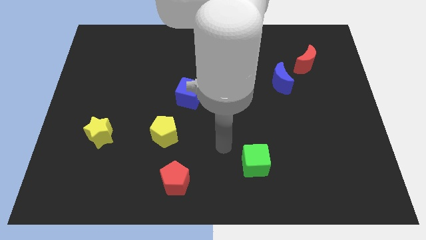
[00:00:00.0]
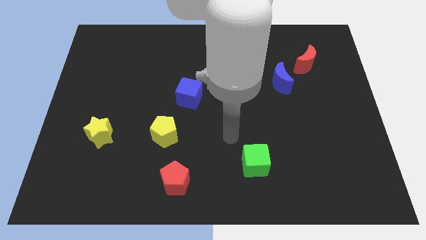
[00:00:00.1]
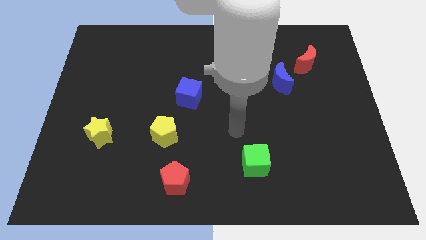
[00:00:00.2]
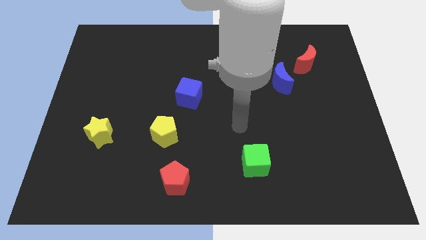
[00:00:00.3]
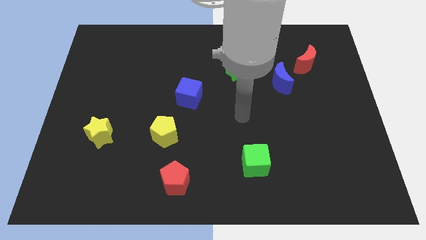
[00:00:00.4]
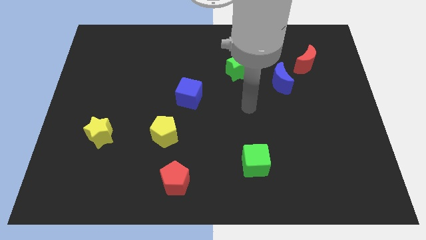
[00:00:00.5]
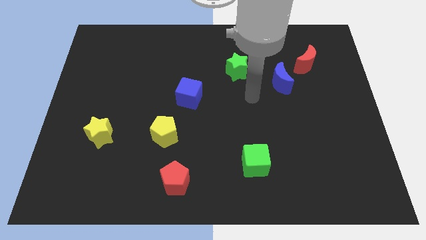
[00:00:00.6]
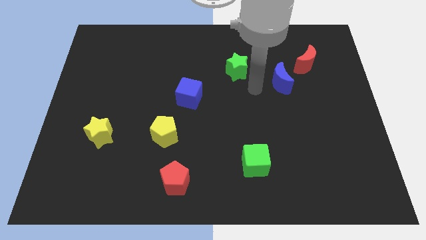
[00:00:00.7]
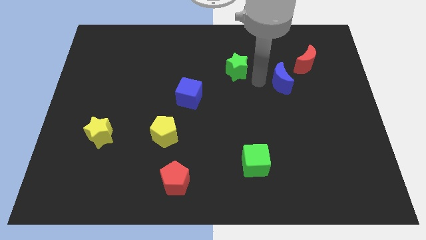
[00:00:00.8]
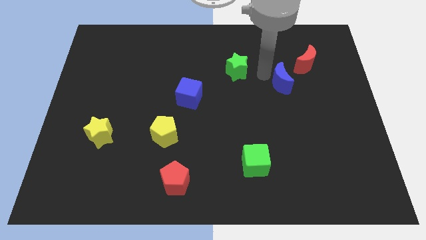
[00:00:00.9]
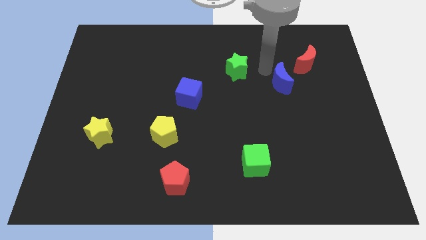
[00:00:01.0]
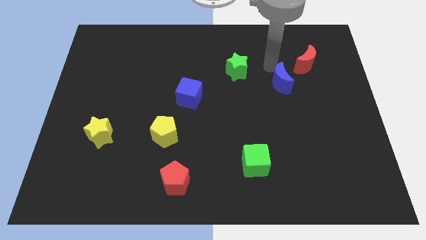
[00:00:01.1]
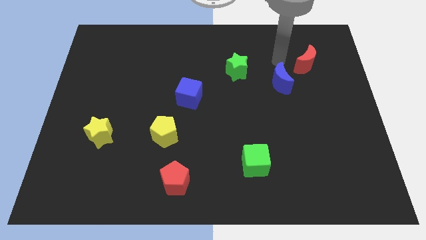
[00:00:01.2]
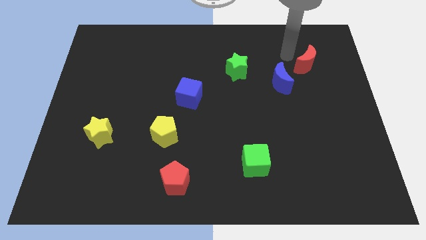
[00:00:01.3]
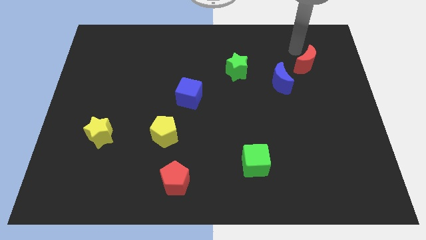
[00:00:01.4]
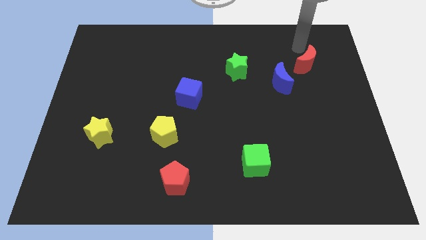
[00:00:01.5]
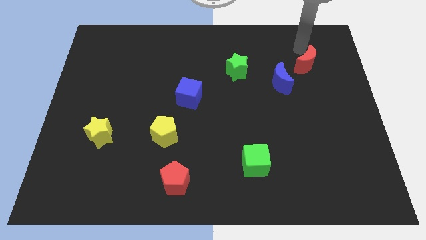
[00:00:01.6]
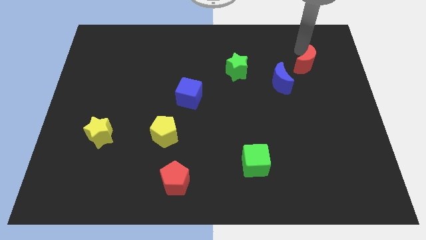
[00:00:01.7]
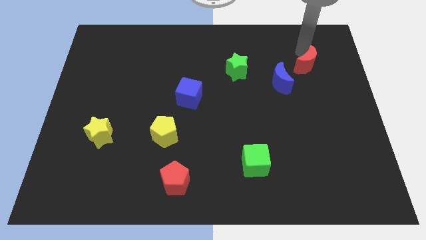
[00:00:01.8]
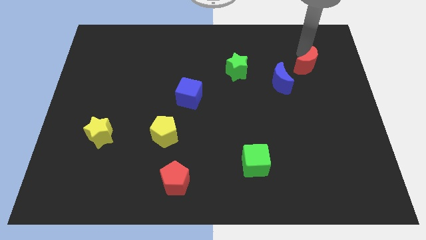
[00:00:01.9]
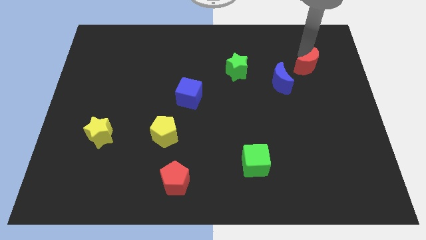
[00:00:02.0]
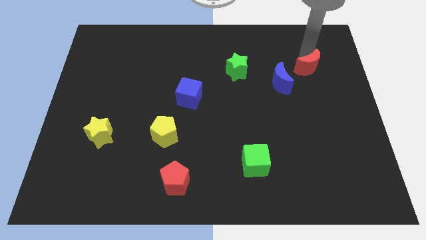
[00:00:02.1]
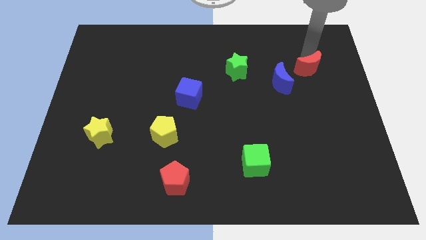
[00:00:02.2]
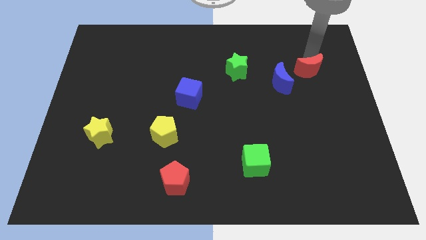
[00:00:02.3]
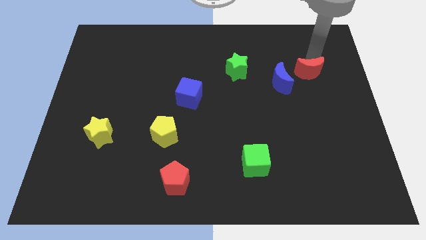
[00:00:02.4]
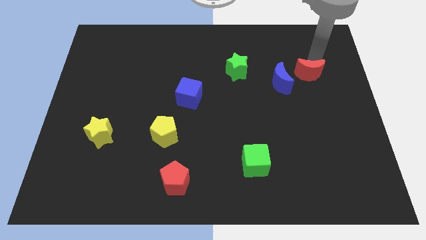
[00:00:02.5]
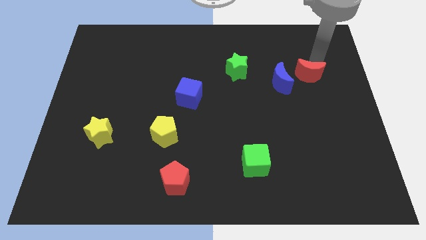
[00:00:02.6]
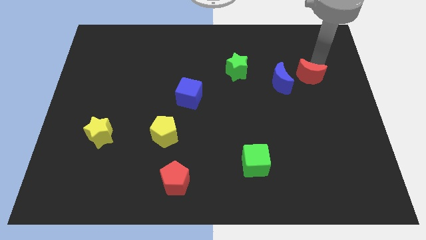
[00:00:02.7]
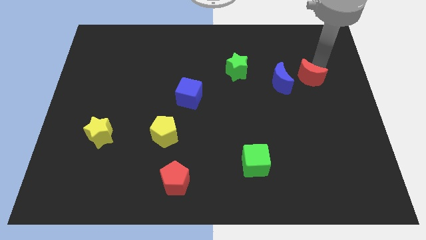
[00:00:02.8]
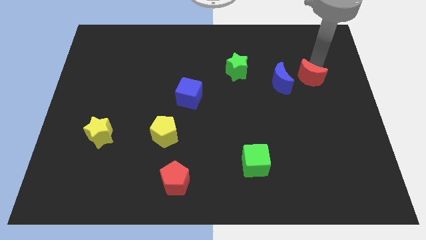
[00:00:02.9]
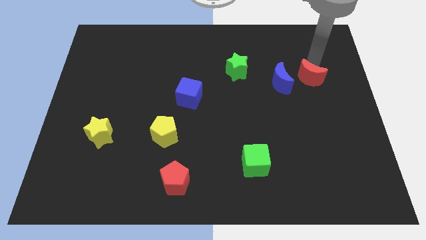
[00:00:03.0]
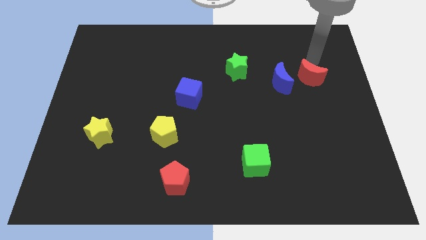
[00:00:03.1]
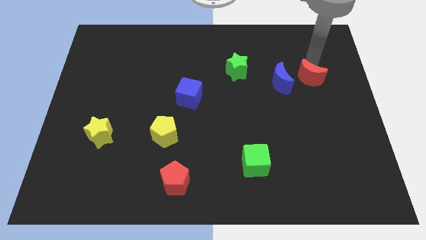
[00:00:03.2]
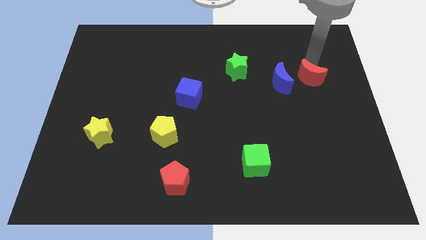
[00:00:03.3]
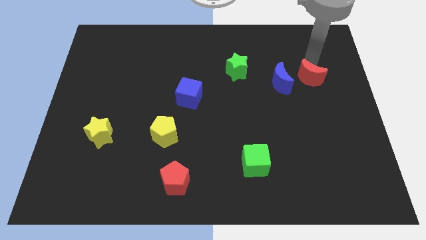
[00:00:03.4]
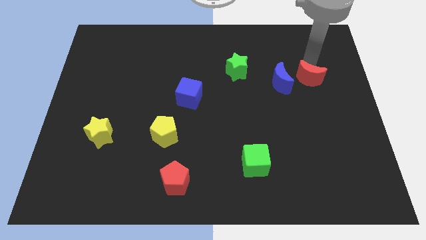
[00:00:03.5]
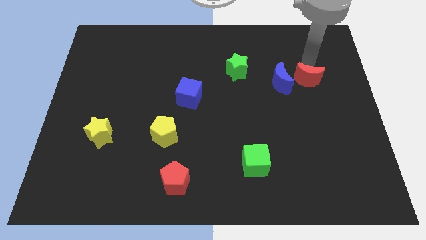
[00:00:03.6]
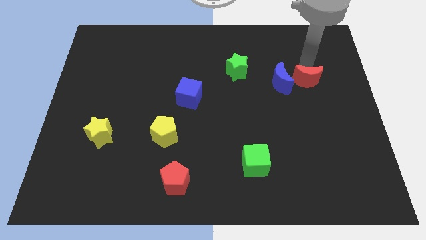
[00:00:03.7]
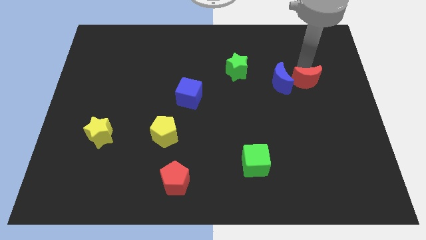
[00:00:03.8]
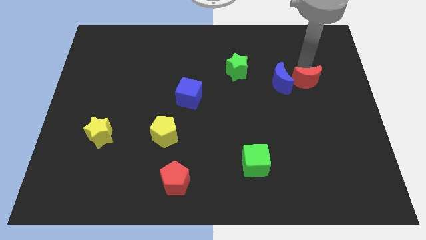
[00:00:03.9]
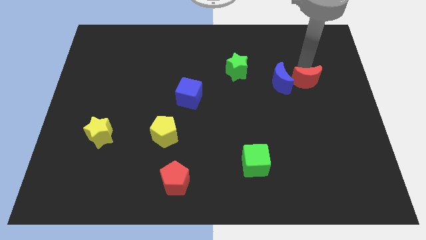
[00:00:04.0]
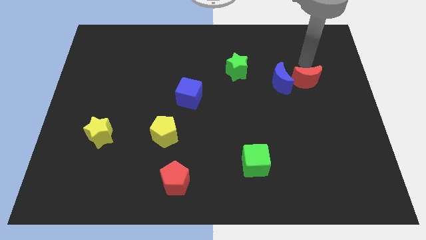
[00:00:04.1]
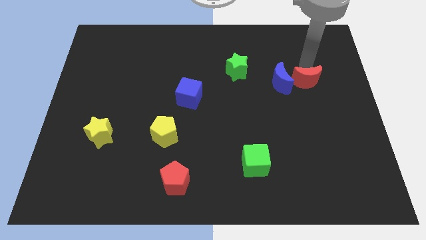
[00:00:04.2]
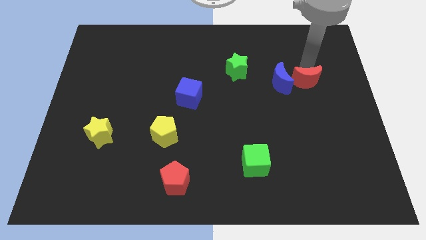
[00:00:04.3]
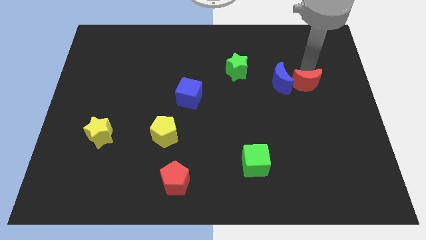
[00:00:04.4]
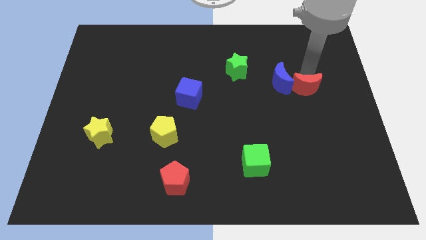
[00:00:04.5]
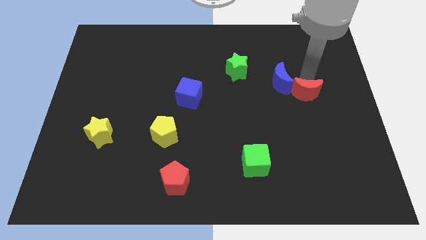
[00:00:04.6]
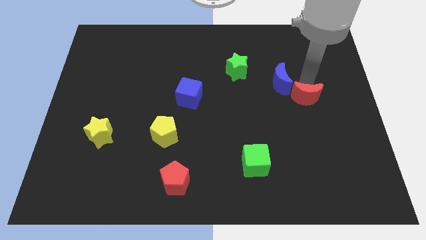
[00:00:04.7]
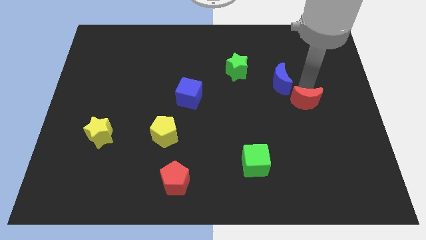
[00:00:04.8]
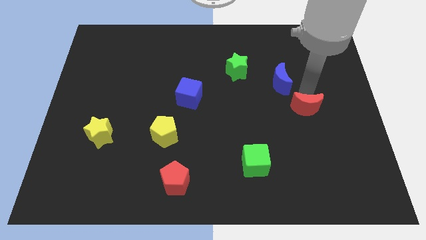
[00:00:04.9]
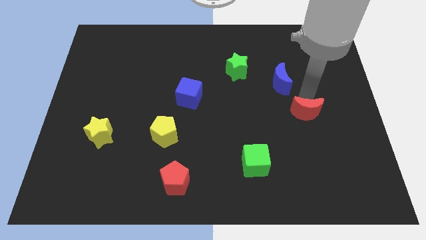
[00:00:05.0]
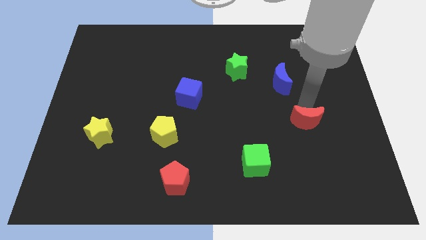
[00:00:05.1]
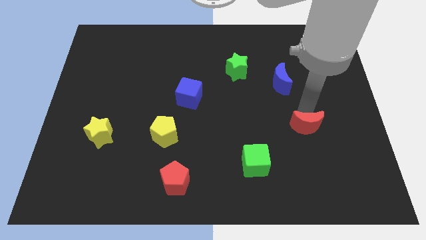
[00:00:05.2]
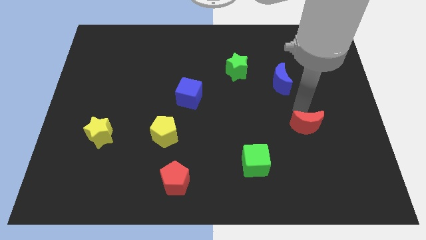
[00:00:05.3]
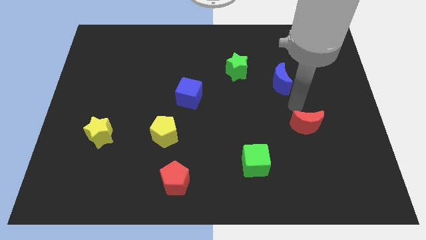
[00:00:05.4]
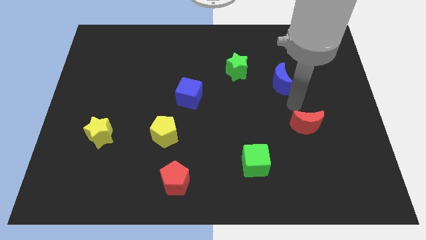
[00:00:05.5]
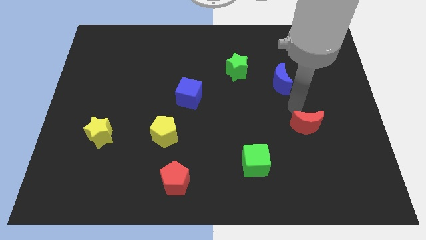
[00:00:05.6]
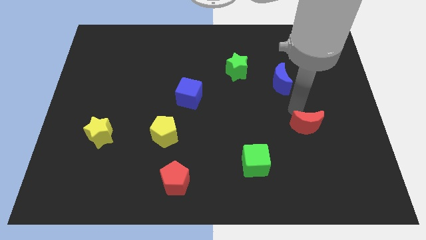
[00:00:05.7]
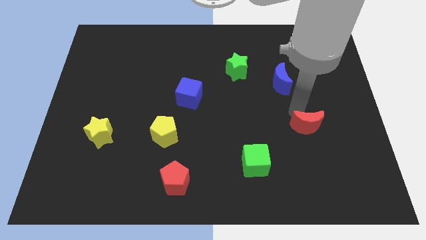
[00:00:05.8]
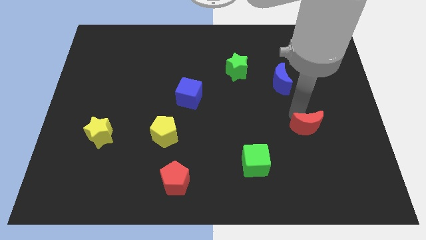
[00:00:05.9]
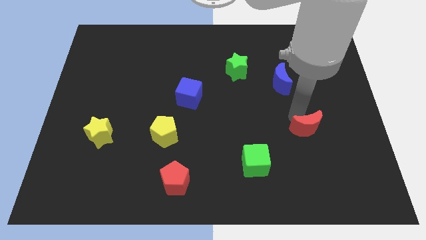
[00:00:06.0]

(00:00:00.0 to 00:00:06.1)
push the red moon downwards

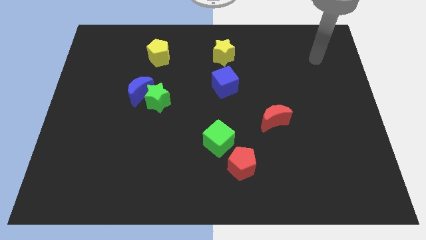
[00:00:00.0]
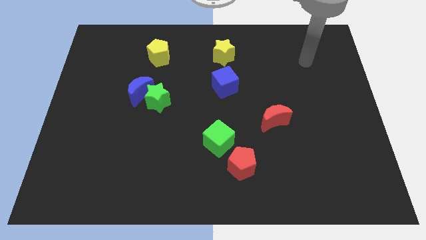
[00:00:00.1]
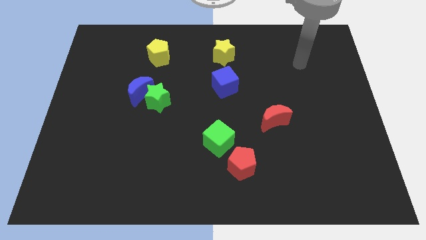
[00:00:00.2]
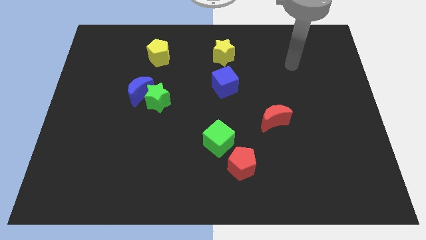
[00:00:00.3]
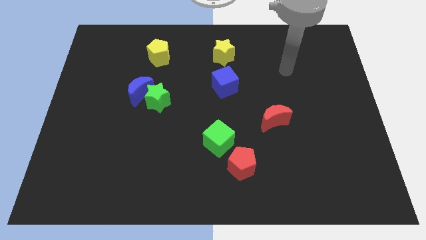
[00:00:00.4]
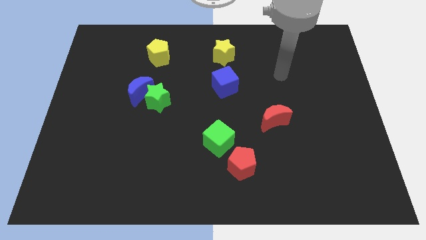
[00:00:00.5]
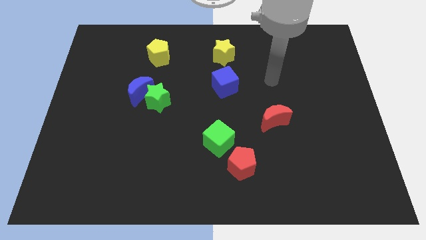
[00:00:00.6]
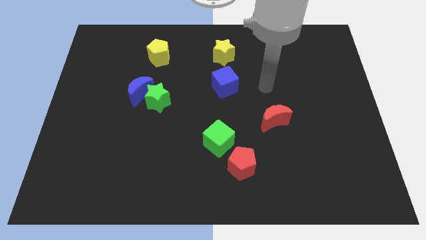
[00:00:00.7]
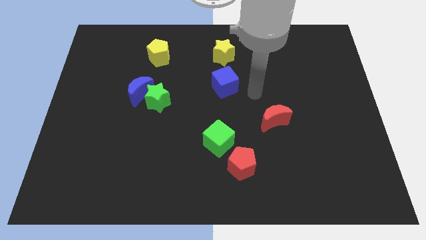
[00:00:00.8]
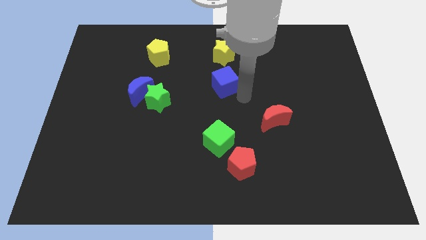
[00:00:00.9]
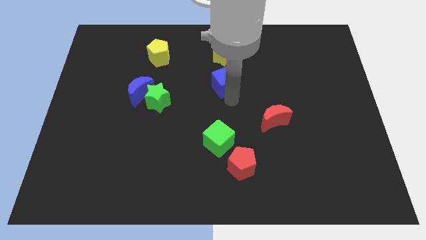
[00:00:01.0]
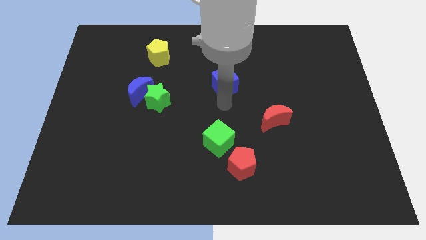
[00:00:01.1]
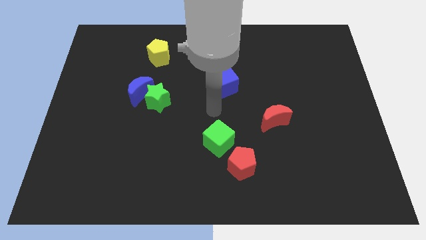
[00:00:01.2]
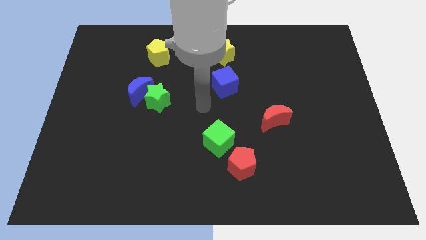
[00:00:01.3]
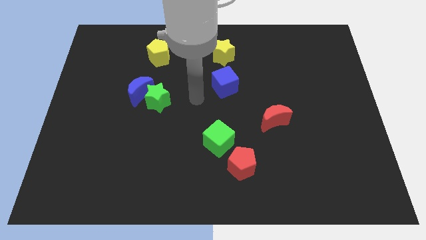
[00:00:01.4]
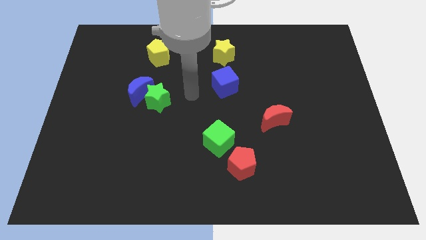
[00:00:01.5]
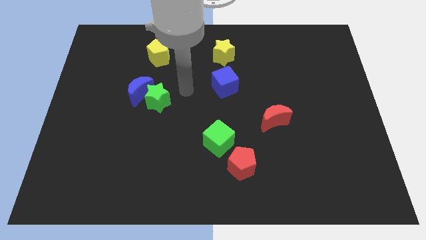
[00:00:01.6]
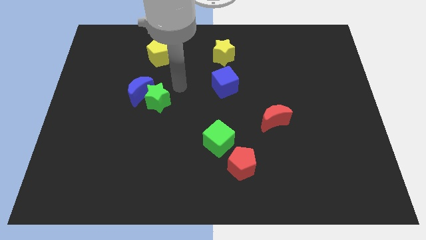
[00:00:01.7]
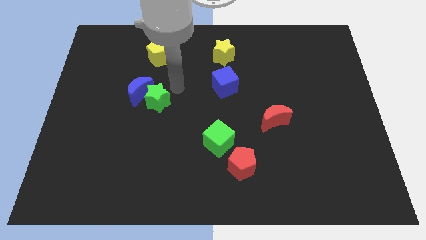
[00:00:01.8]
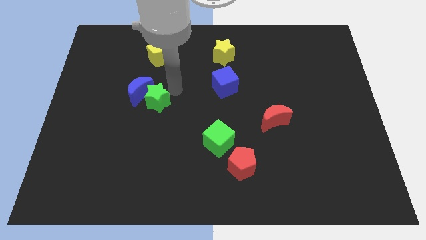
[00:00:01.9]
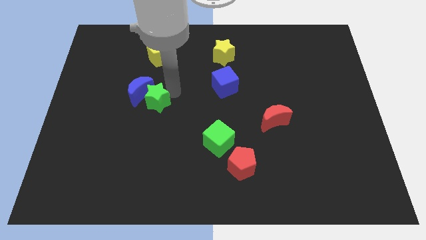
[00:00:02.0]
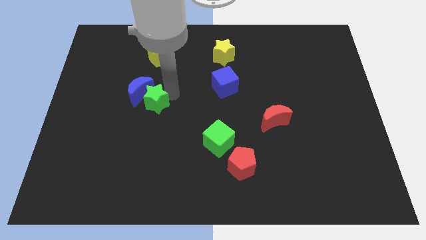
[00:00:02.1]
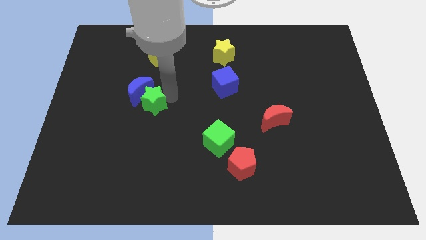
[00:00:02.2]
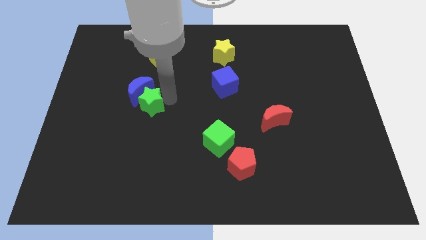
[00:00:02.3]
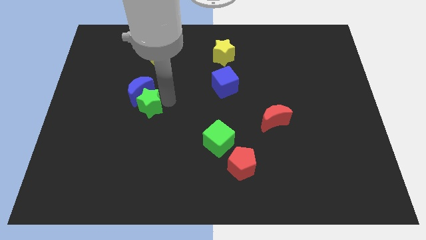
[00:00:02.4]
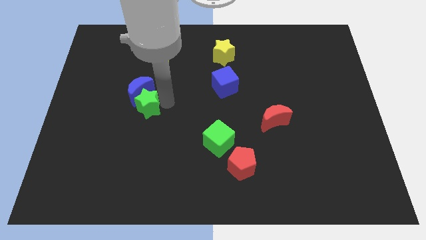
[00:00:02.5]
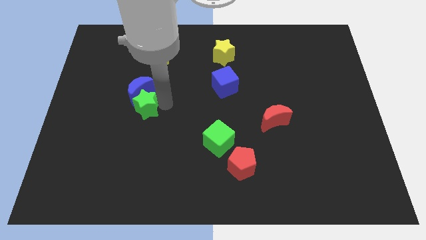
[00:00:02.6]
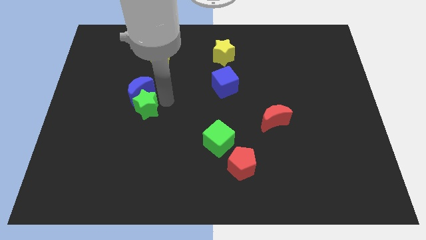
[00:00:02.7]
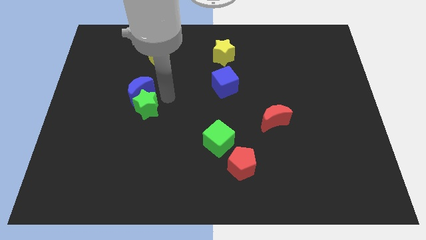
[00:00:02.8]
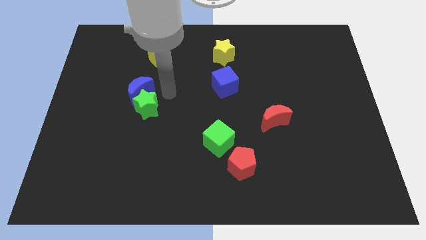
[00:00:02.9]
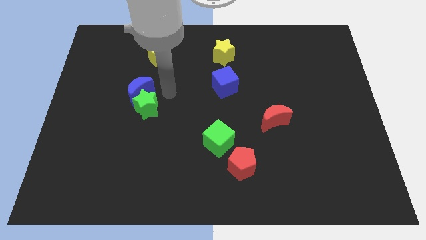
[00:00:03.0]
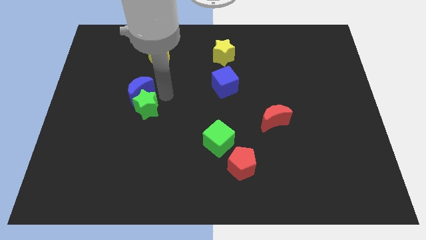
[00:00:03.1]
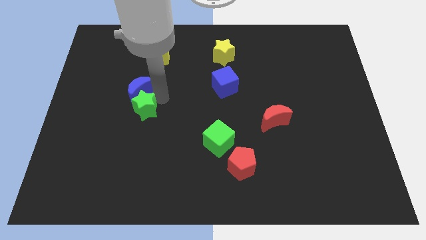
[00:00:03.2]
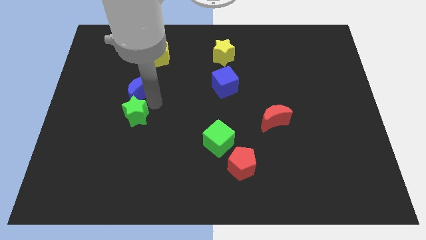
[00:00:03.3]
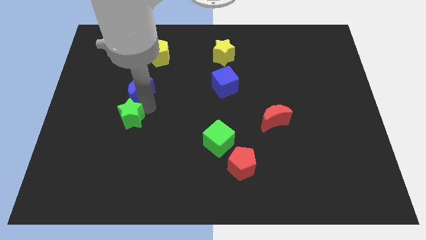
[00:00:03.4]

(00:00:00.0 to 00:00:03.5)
move the green star a little downwards and left diagonally
